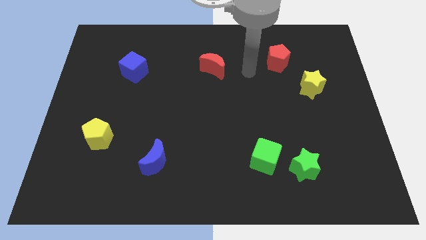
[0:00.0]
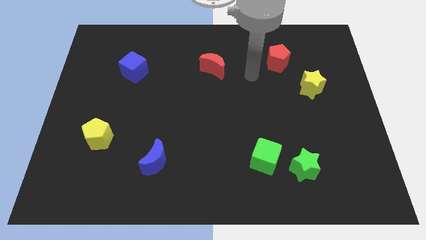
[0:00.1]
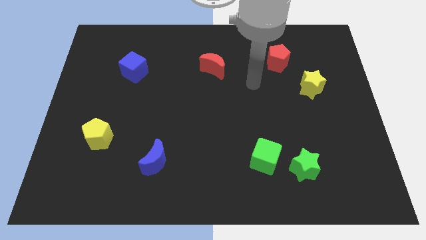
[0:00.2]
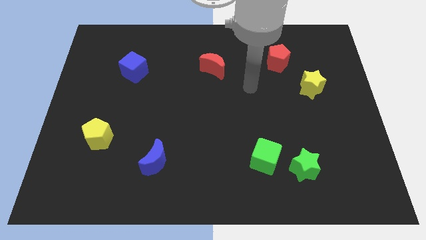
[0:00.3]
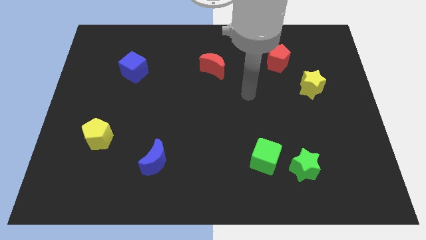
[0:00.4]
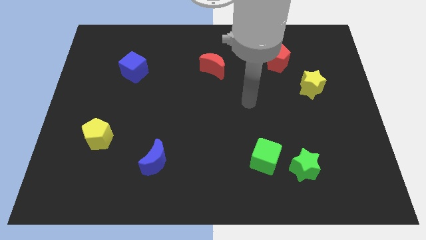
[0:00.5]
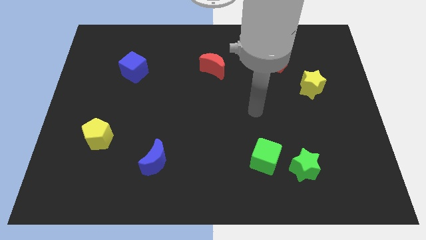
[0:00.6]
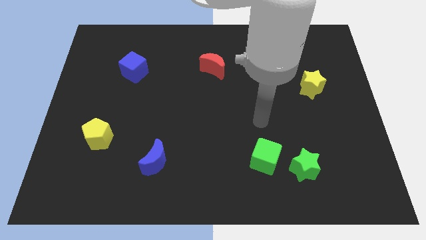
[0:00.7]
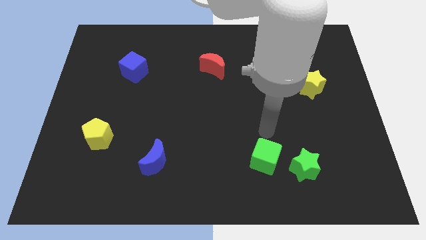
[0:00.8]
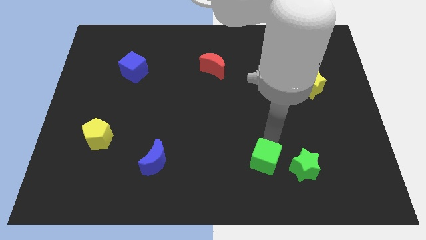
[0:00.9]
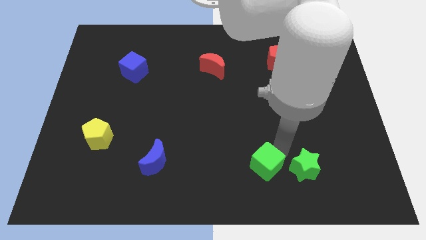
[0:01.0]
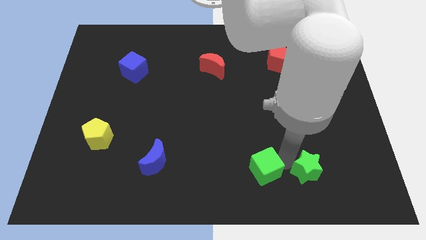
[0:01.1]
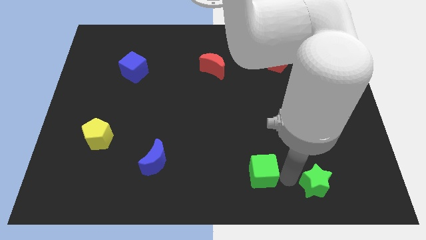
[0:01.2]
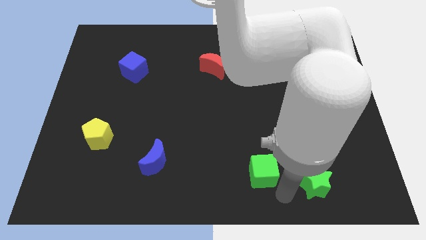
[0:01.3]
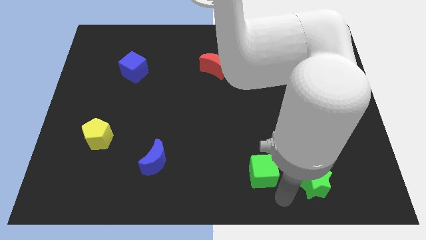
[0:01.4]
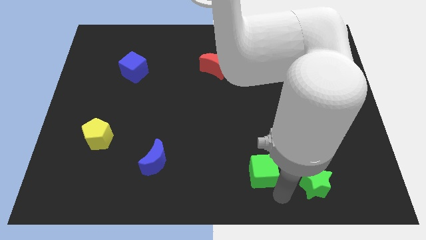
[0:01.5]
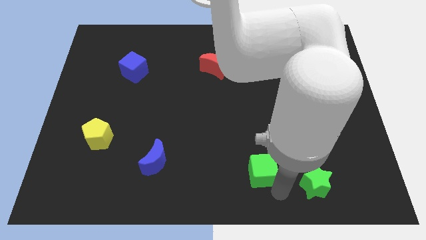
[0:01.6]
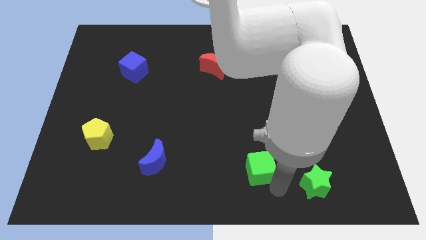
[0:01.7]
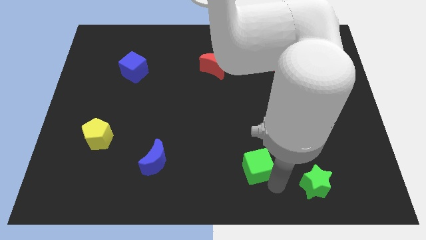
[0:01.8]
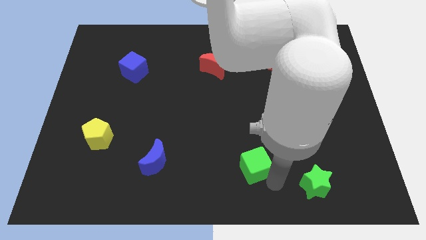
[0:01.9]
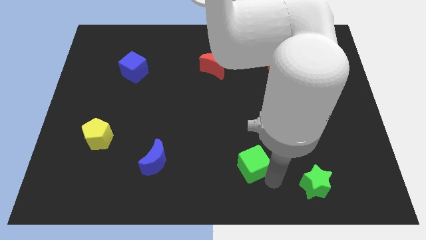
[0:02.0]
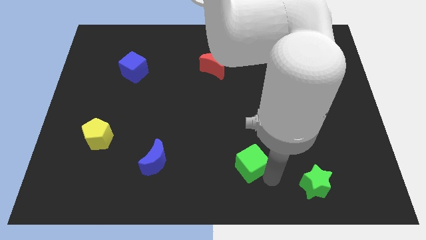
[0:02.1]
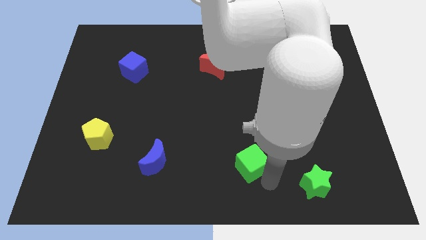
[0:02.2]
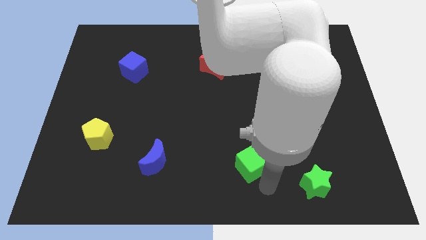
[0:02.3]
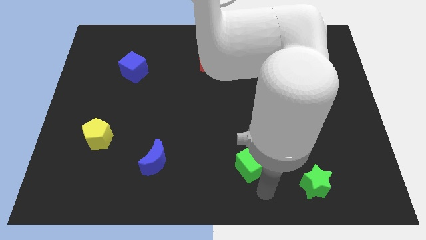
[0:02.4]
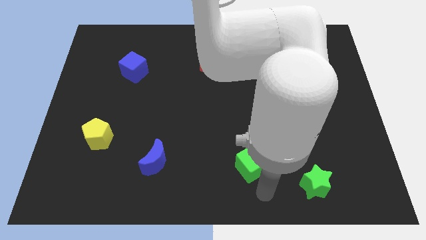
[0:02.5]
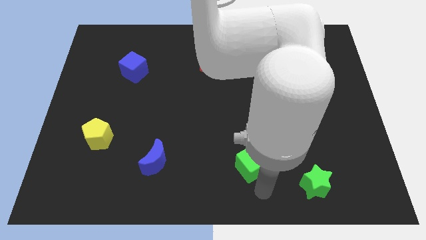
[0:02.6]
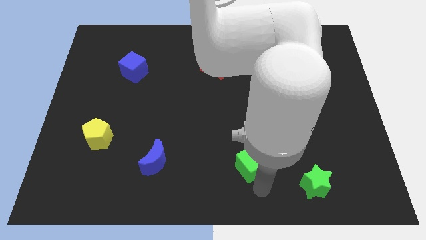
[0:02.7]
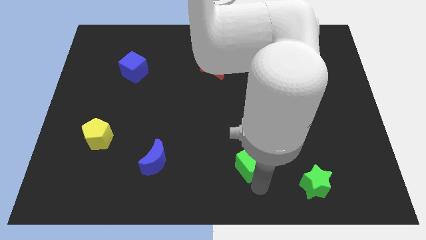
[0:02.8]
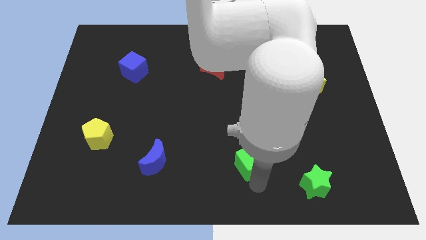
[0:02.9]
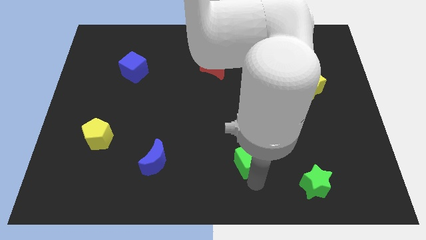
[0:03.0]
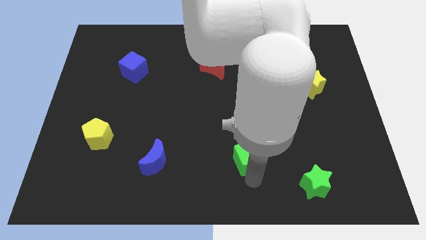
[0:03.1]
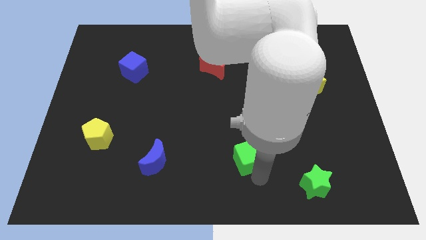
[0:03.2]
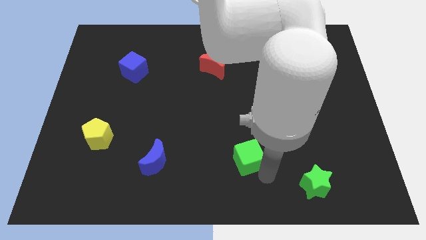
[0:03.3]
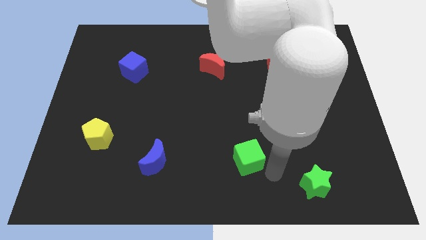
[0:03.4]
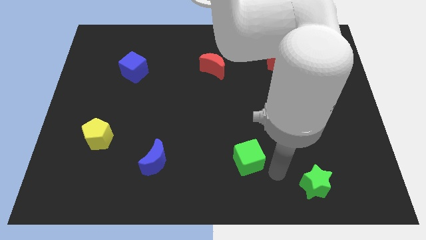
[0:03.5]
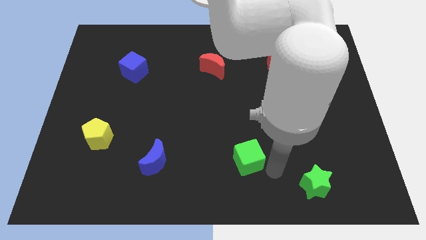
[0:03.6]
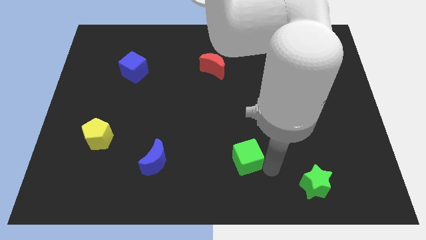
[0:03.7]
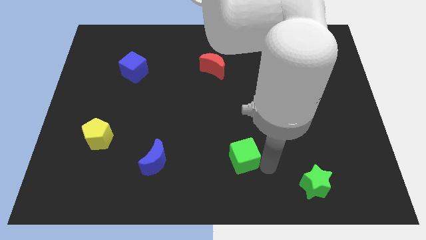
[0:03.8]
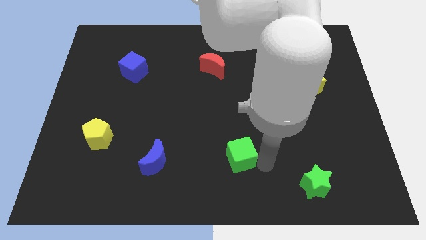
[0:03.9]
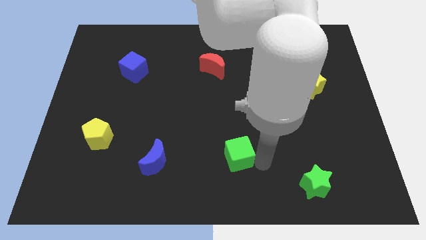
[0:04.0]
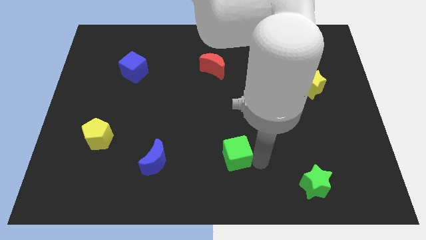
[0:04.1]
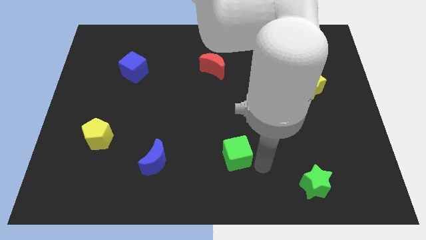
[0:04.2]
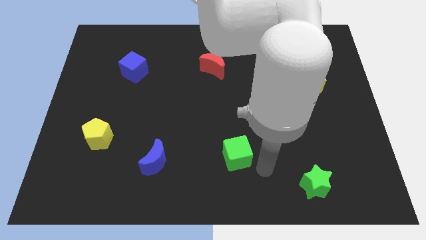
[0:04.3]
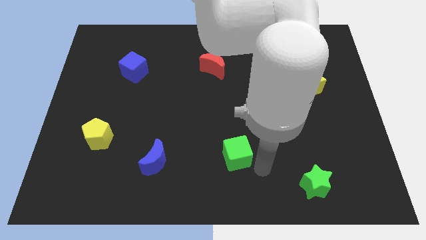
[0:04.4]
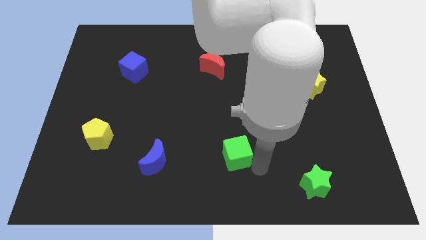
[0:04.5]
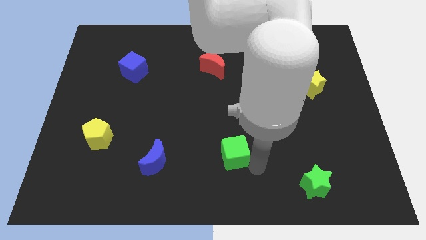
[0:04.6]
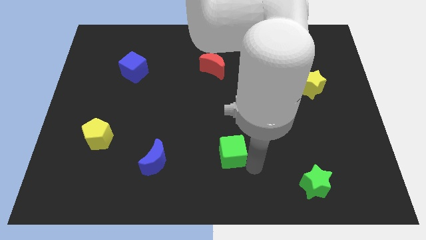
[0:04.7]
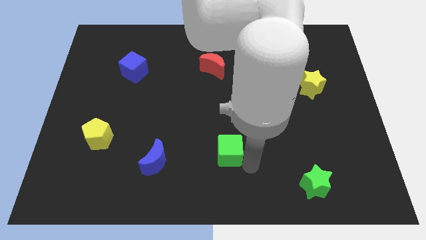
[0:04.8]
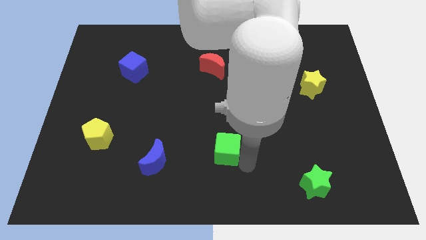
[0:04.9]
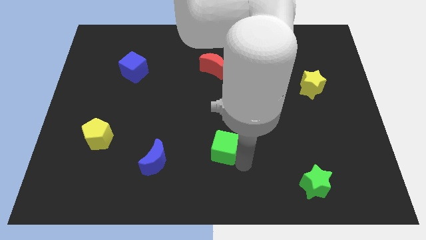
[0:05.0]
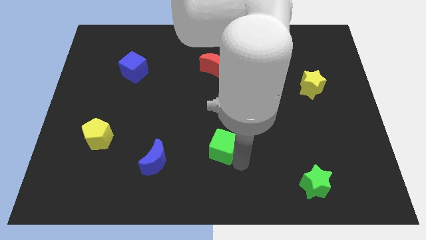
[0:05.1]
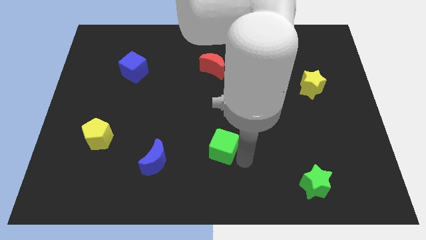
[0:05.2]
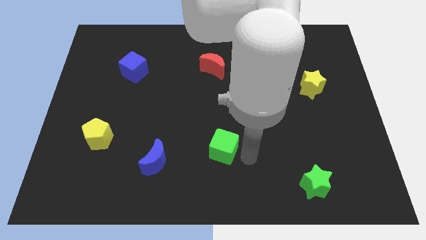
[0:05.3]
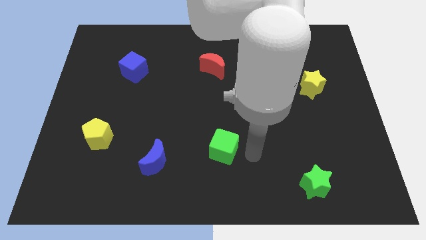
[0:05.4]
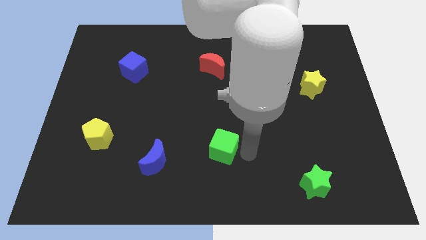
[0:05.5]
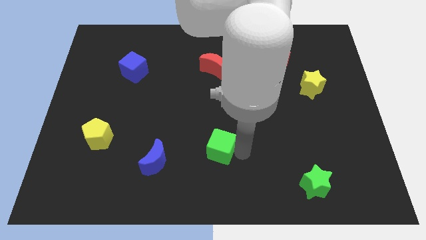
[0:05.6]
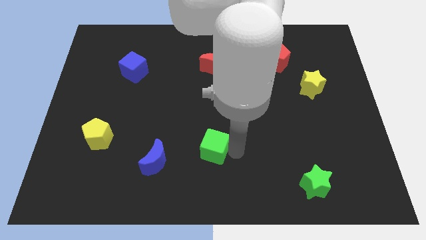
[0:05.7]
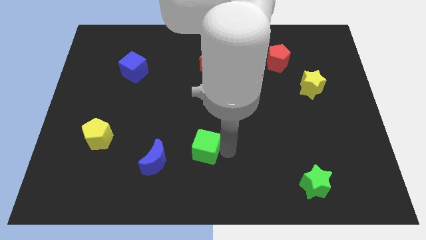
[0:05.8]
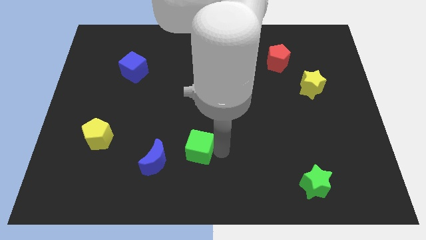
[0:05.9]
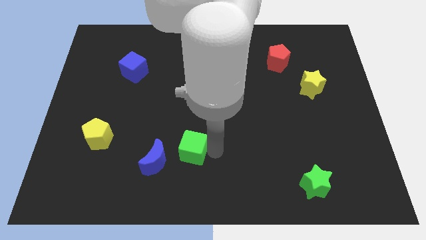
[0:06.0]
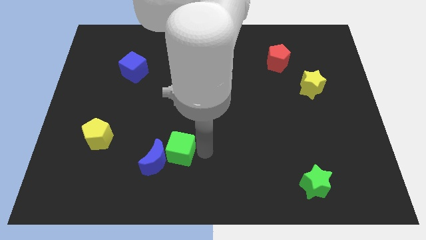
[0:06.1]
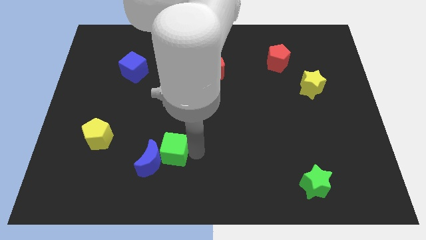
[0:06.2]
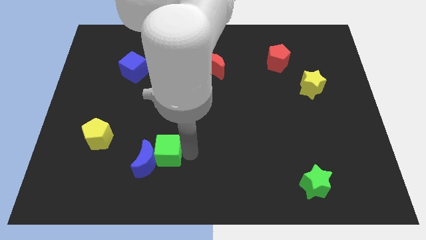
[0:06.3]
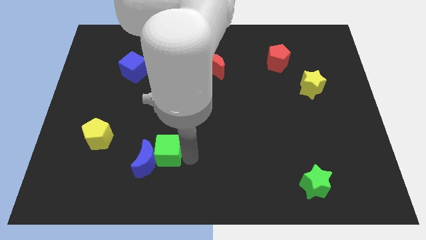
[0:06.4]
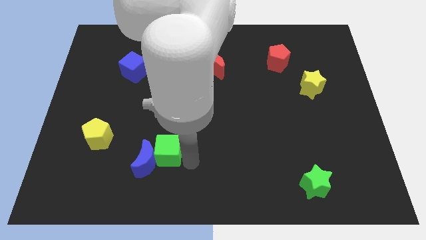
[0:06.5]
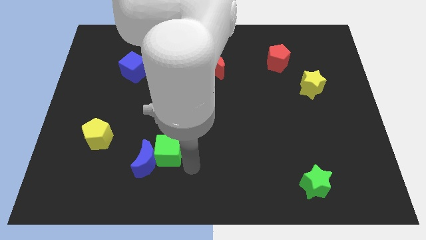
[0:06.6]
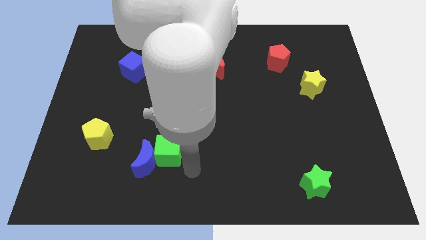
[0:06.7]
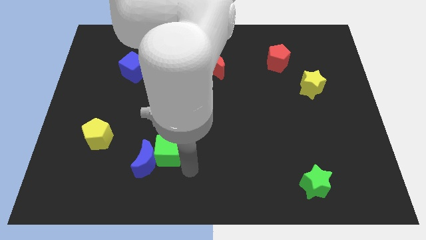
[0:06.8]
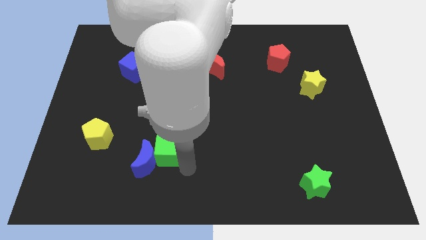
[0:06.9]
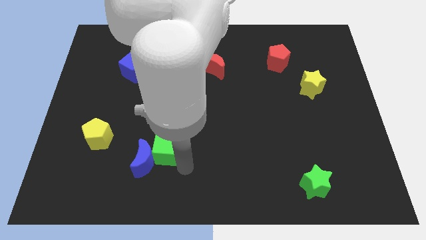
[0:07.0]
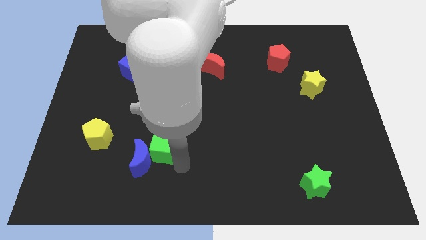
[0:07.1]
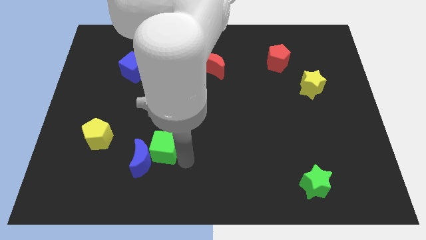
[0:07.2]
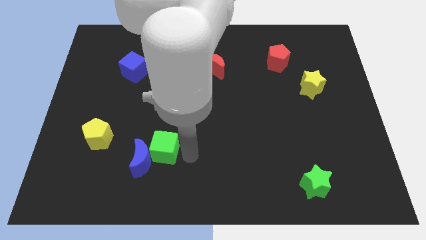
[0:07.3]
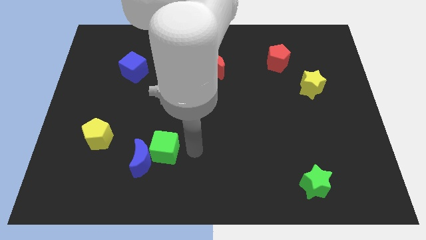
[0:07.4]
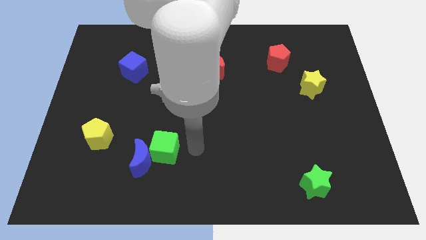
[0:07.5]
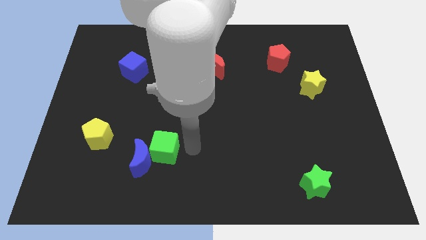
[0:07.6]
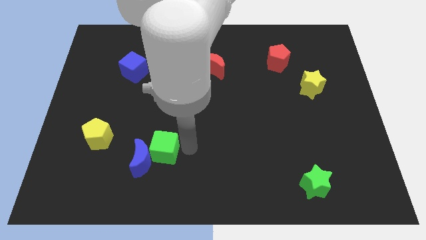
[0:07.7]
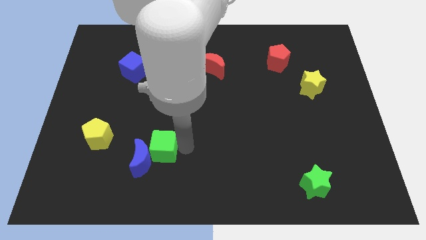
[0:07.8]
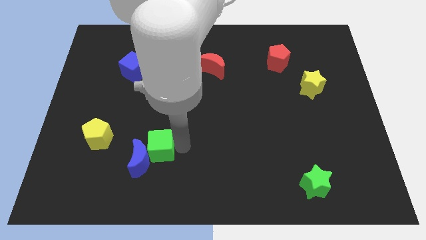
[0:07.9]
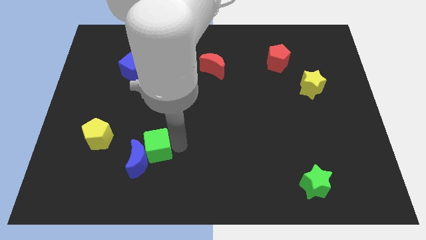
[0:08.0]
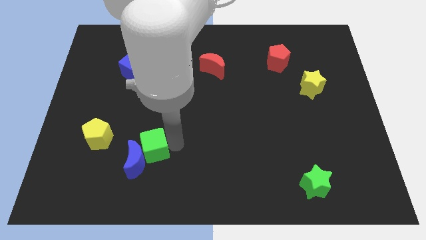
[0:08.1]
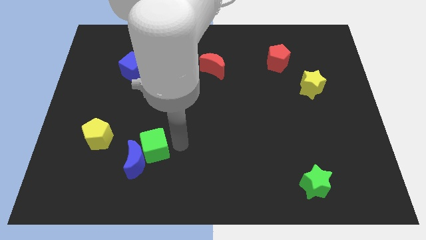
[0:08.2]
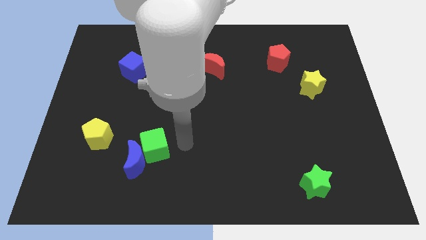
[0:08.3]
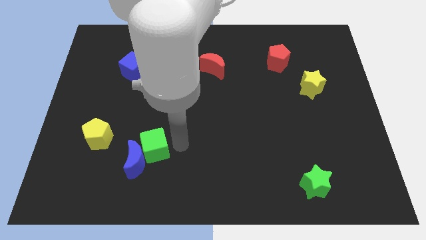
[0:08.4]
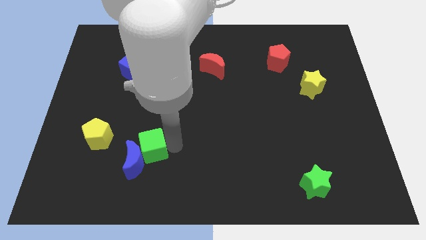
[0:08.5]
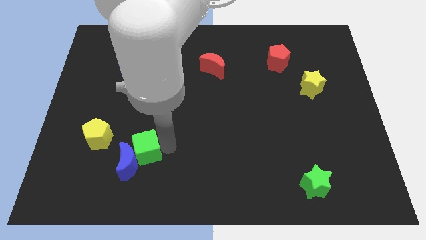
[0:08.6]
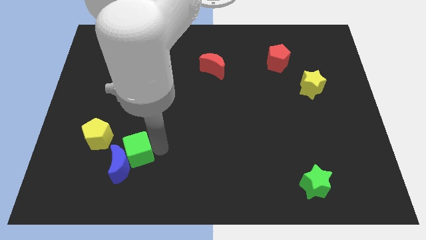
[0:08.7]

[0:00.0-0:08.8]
move the green cube to the bottom right side of the yellow pentagon
